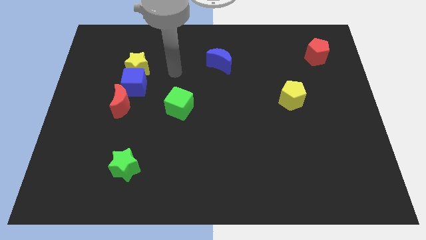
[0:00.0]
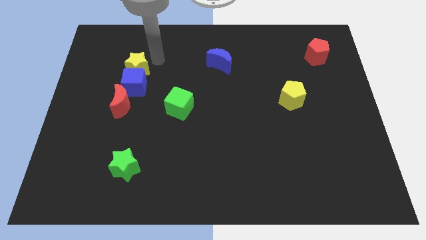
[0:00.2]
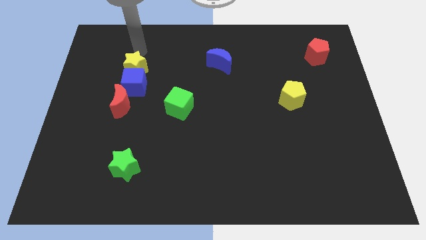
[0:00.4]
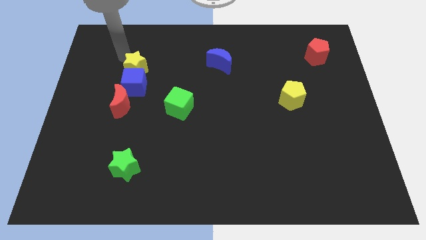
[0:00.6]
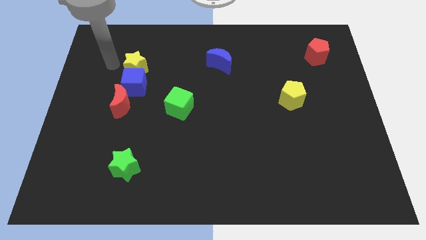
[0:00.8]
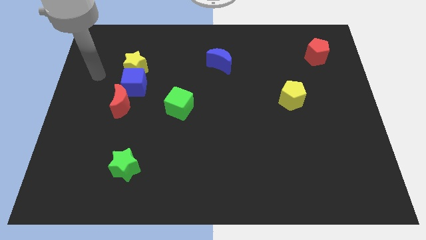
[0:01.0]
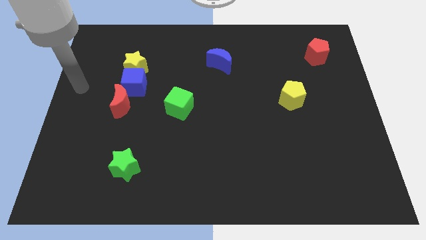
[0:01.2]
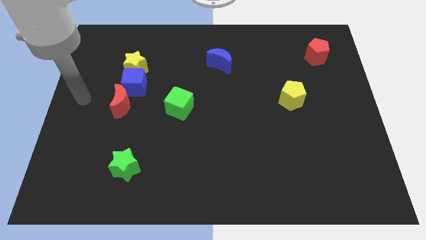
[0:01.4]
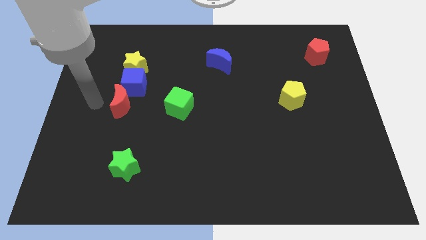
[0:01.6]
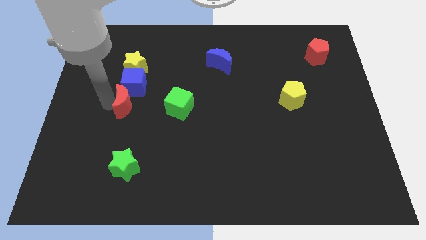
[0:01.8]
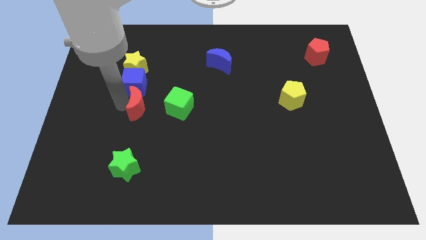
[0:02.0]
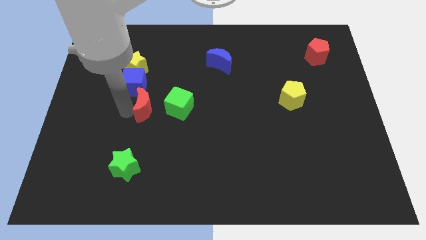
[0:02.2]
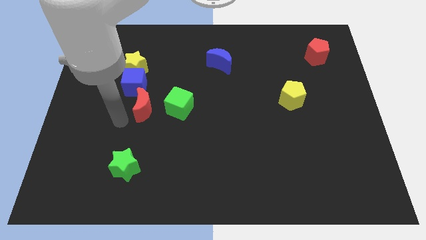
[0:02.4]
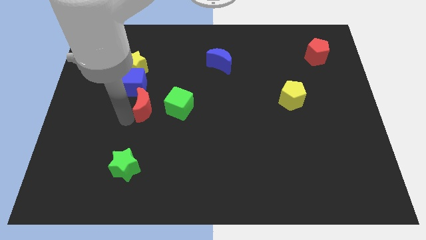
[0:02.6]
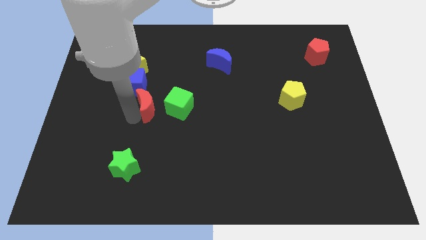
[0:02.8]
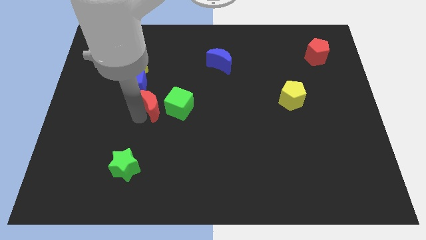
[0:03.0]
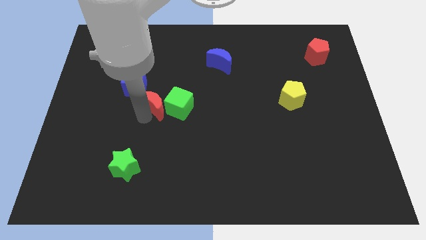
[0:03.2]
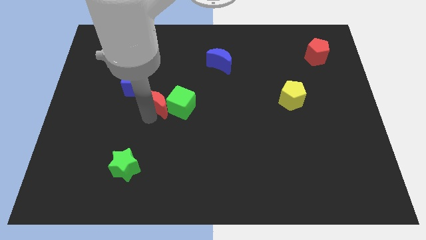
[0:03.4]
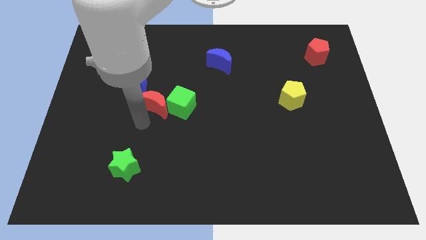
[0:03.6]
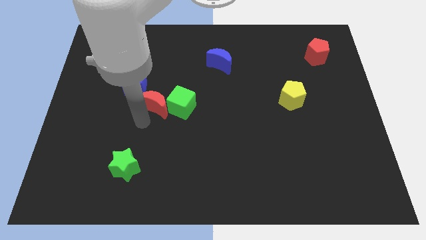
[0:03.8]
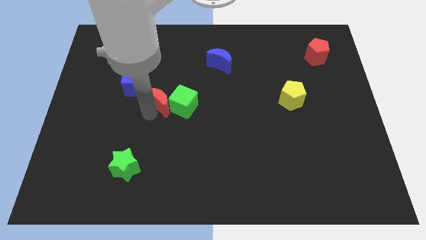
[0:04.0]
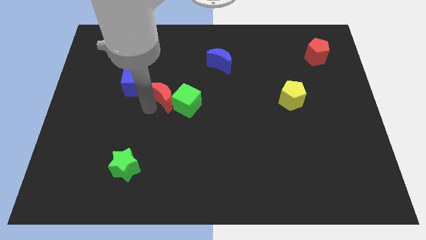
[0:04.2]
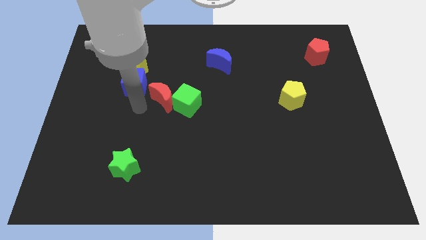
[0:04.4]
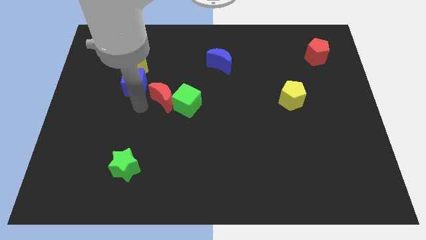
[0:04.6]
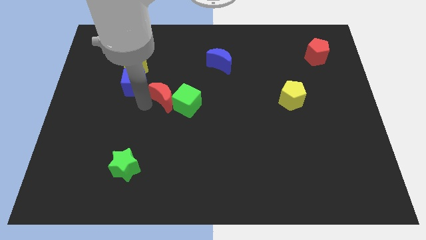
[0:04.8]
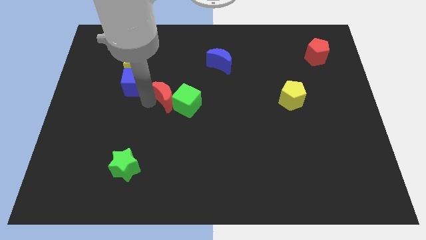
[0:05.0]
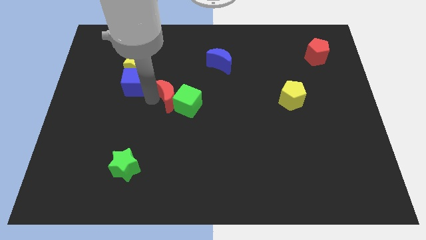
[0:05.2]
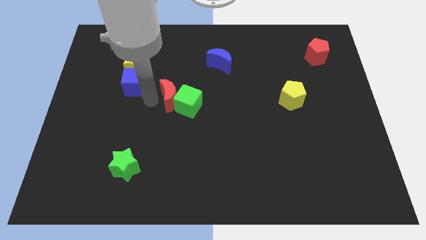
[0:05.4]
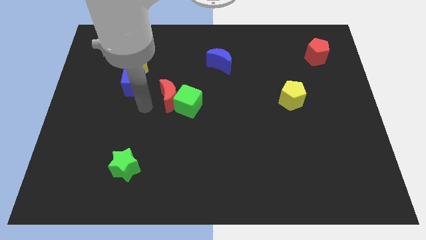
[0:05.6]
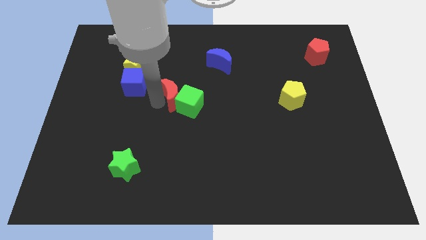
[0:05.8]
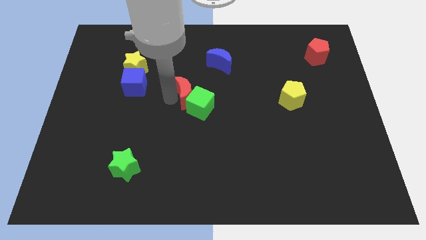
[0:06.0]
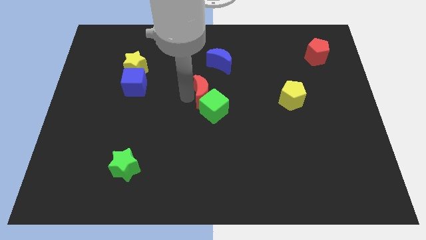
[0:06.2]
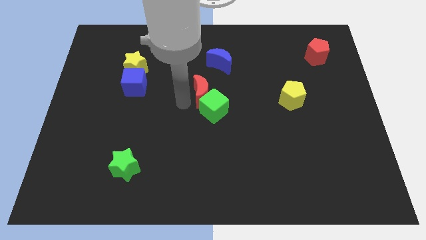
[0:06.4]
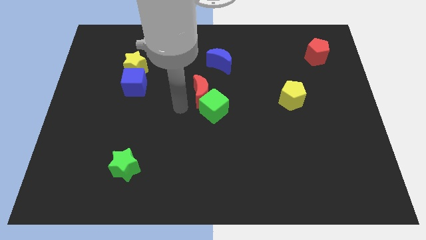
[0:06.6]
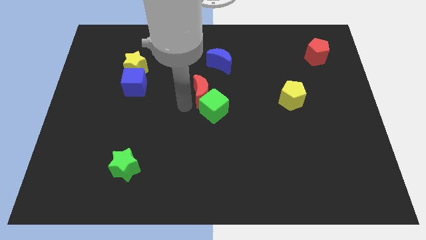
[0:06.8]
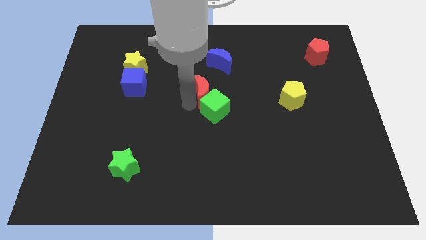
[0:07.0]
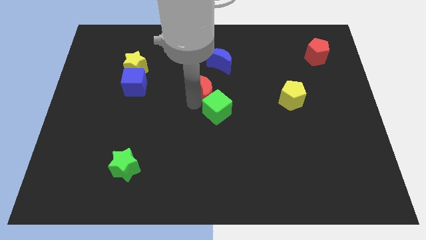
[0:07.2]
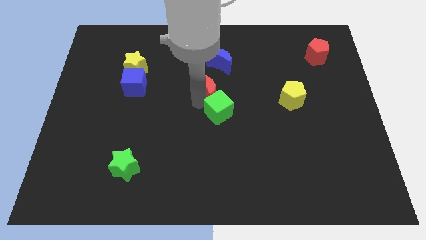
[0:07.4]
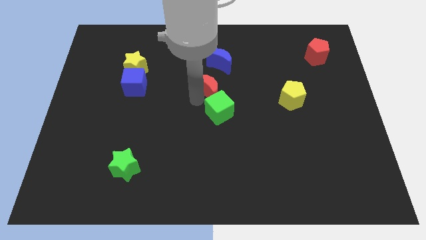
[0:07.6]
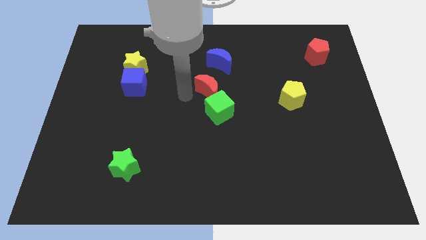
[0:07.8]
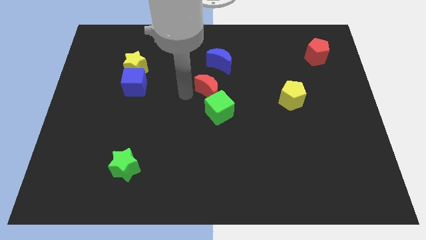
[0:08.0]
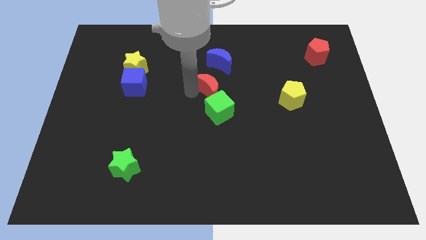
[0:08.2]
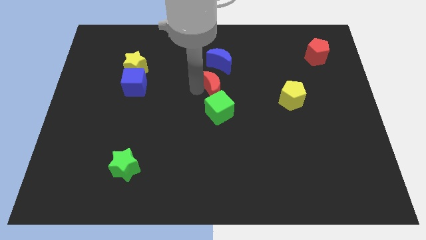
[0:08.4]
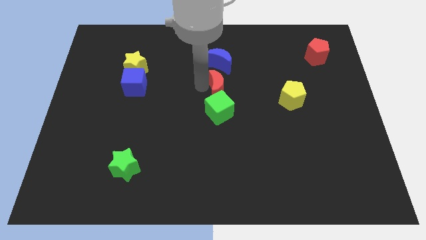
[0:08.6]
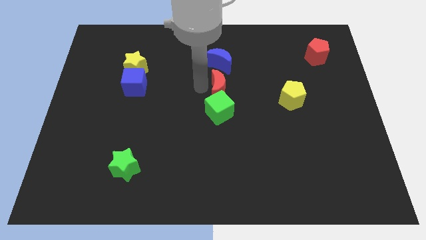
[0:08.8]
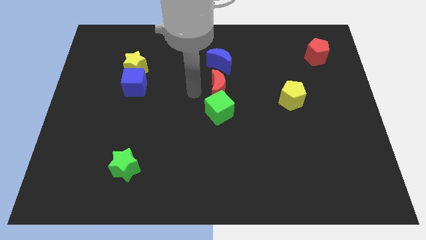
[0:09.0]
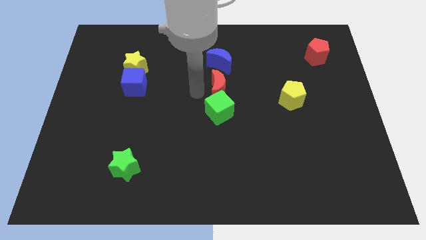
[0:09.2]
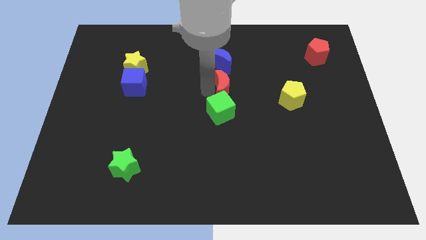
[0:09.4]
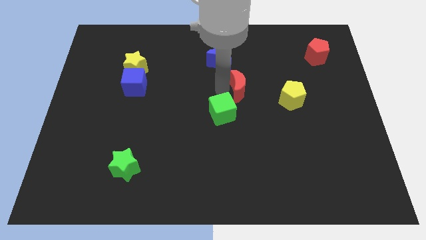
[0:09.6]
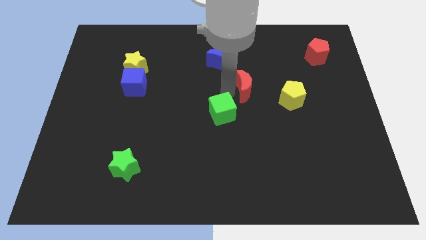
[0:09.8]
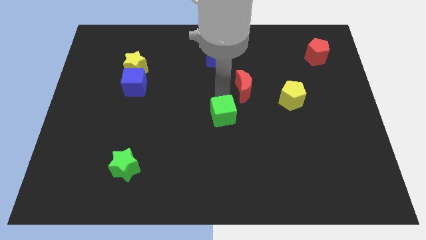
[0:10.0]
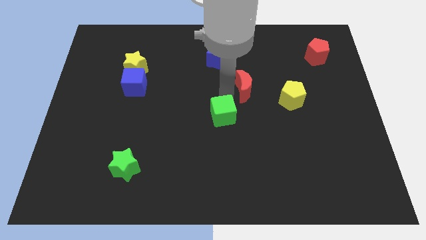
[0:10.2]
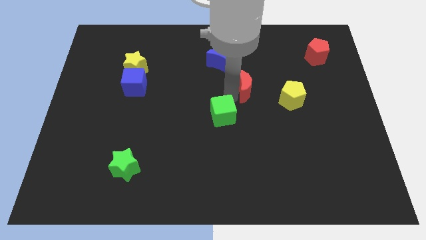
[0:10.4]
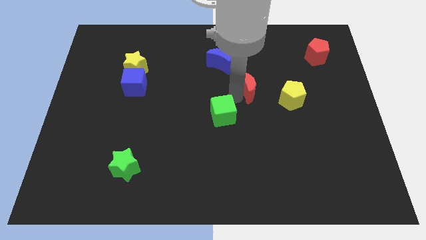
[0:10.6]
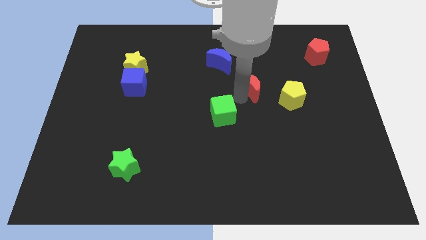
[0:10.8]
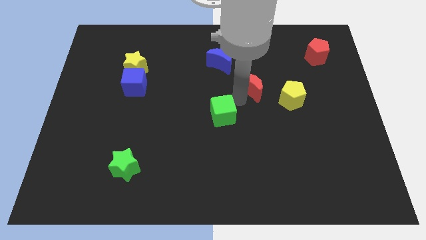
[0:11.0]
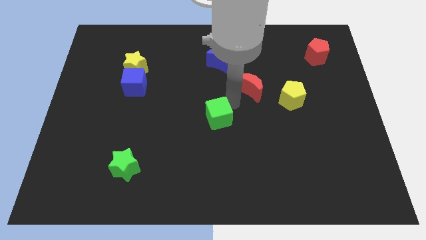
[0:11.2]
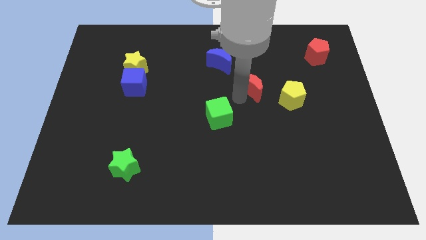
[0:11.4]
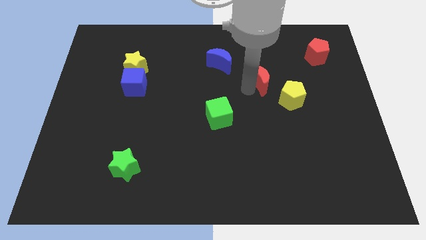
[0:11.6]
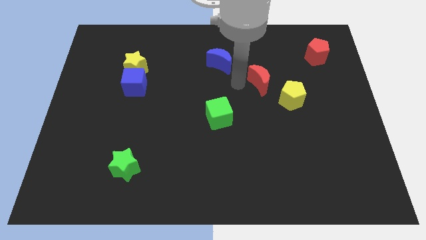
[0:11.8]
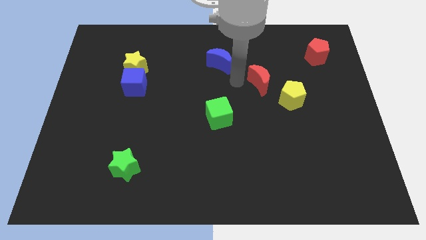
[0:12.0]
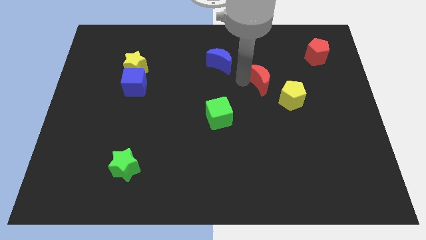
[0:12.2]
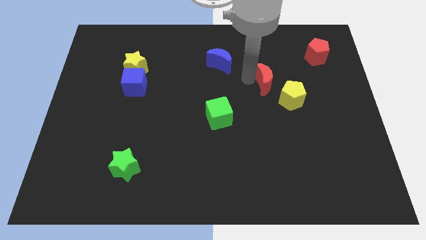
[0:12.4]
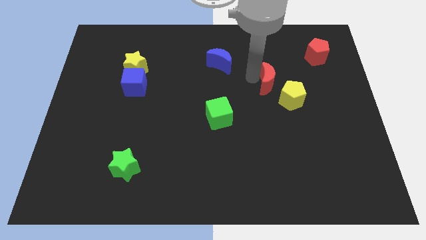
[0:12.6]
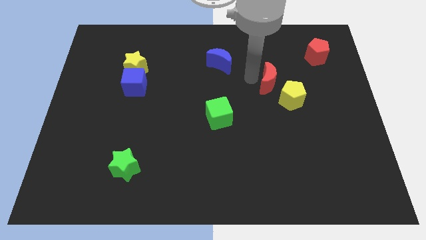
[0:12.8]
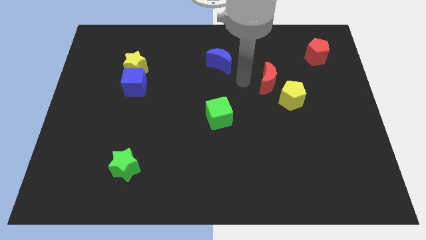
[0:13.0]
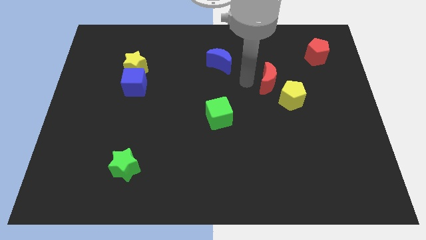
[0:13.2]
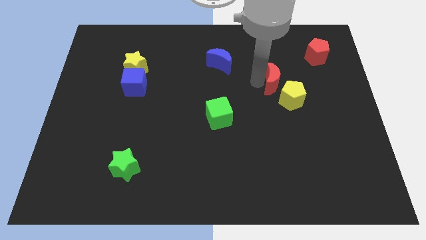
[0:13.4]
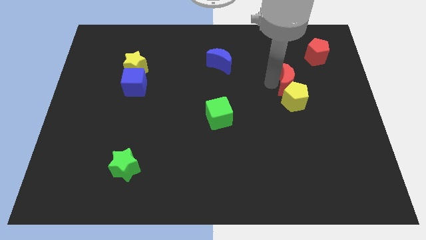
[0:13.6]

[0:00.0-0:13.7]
put the red moon to the top right of the yellow pentagon
